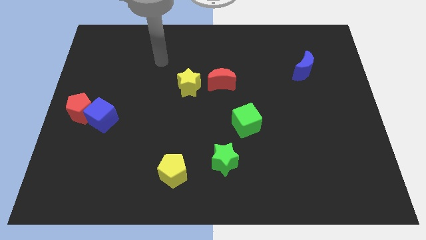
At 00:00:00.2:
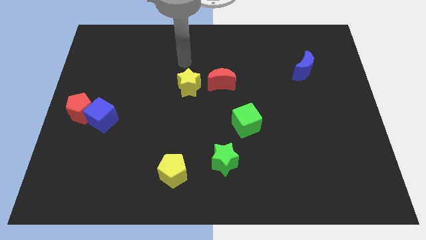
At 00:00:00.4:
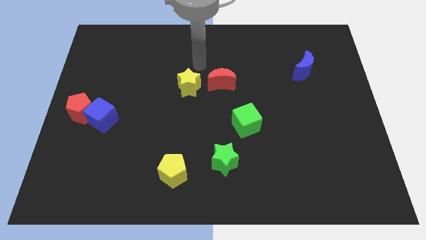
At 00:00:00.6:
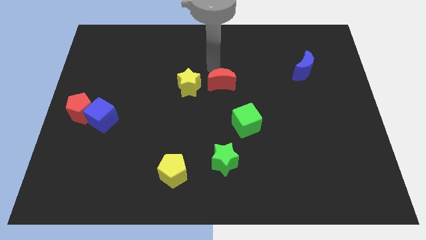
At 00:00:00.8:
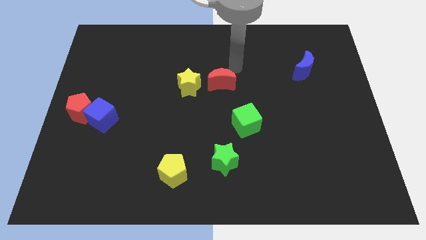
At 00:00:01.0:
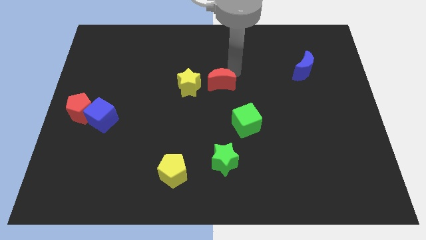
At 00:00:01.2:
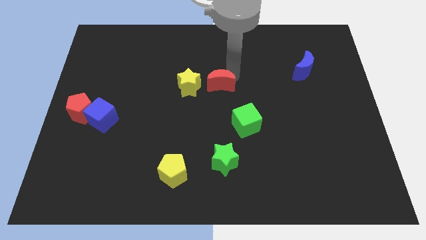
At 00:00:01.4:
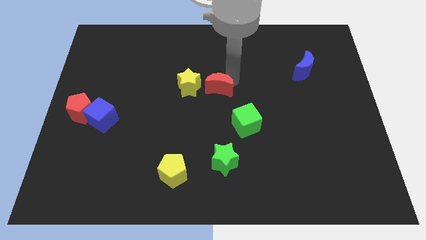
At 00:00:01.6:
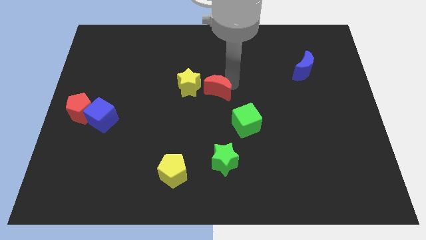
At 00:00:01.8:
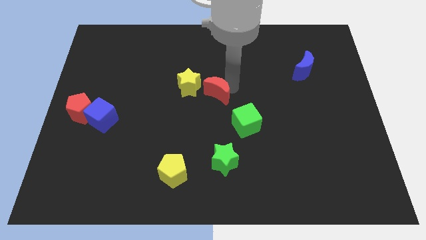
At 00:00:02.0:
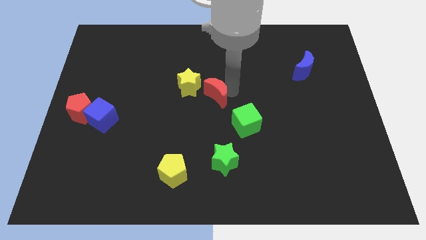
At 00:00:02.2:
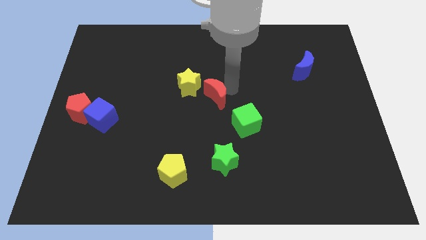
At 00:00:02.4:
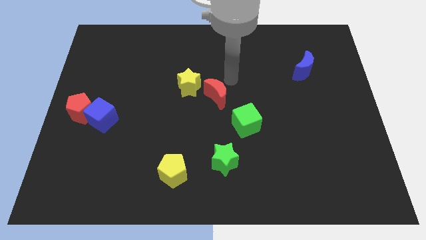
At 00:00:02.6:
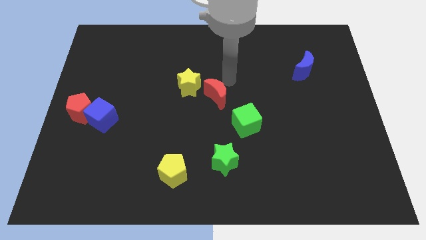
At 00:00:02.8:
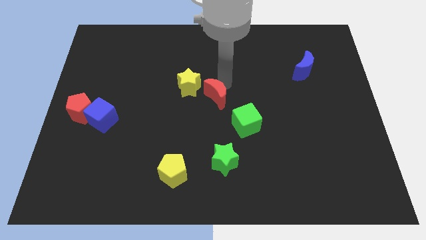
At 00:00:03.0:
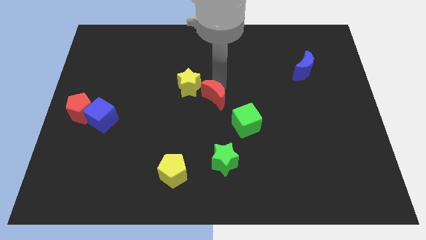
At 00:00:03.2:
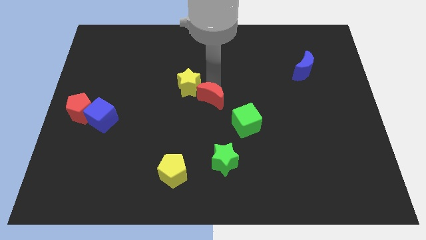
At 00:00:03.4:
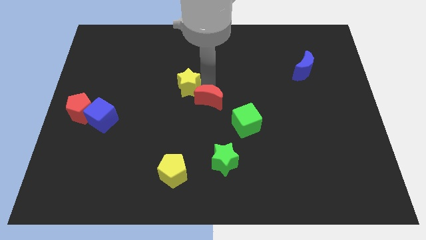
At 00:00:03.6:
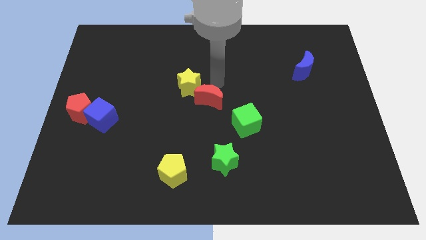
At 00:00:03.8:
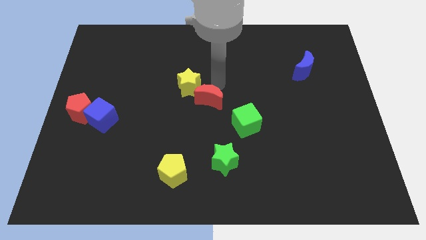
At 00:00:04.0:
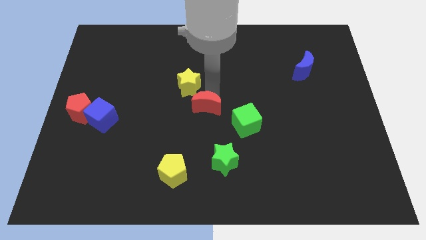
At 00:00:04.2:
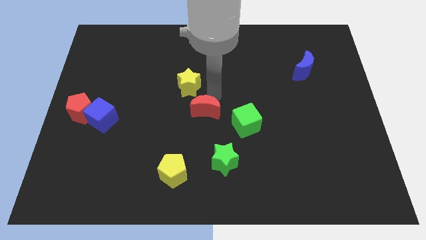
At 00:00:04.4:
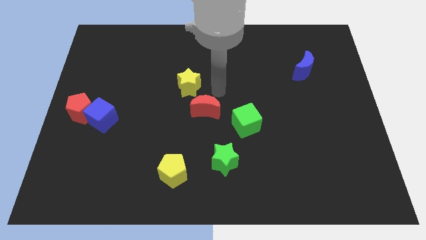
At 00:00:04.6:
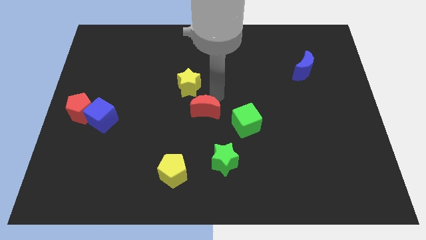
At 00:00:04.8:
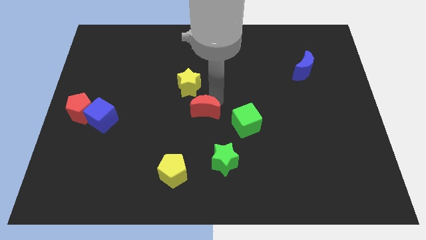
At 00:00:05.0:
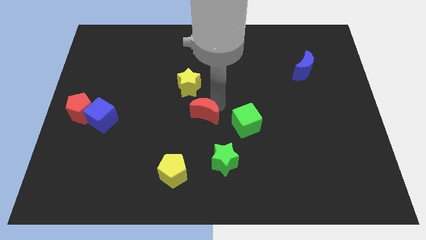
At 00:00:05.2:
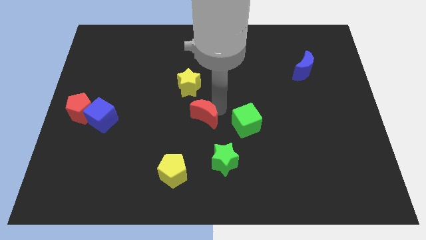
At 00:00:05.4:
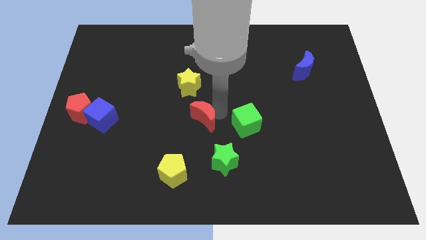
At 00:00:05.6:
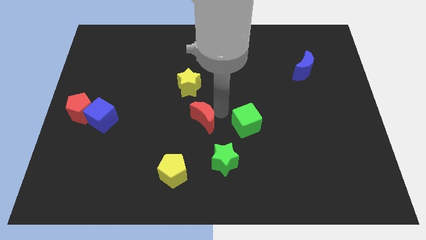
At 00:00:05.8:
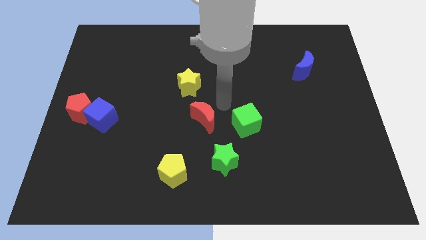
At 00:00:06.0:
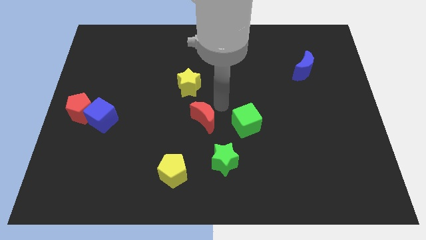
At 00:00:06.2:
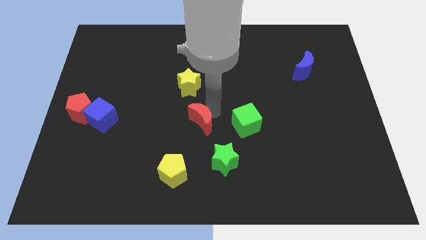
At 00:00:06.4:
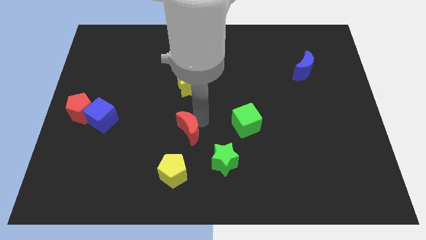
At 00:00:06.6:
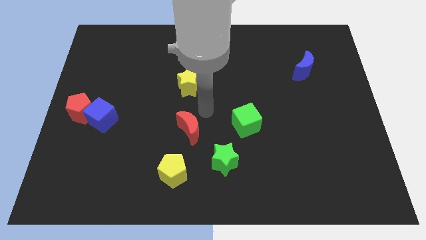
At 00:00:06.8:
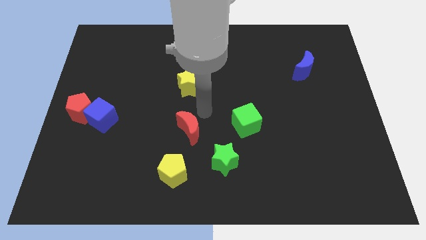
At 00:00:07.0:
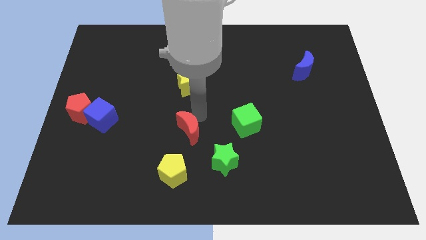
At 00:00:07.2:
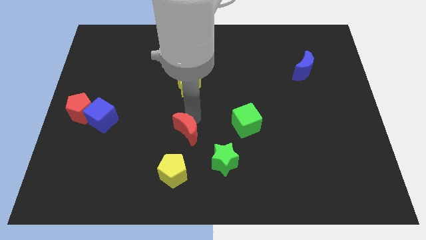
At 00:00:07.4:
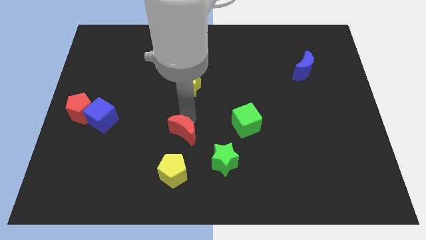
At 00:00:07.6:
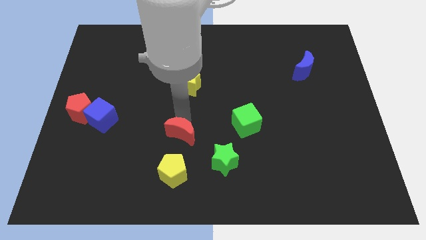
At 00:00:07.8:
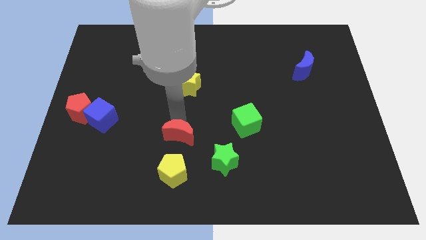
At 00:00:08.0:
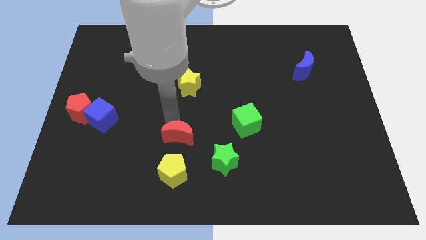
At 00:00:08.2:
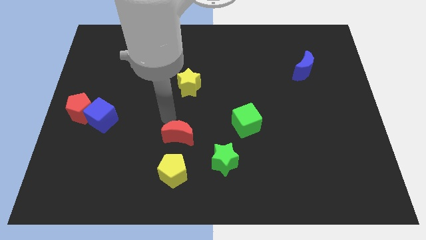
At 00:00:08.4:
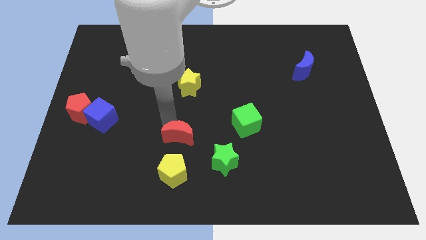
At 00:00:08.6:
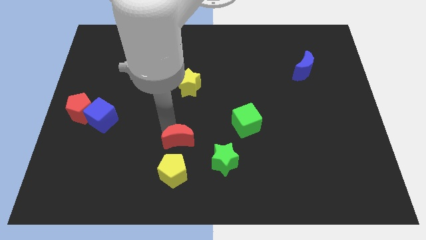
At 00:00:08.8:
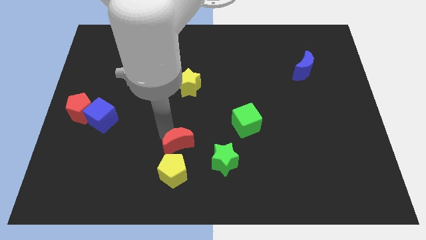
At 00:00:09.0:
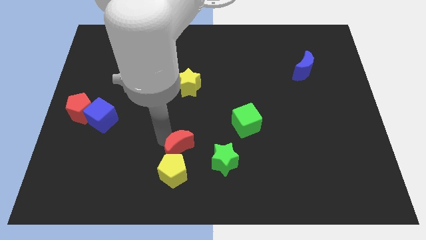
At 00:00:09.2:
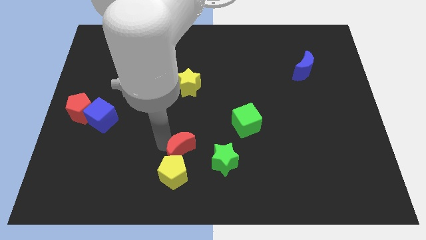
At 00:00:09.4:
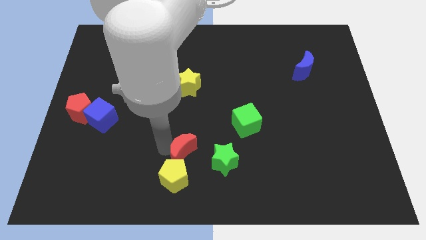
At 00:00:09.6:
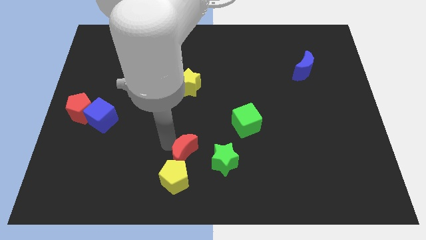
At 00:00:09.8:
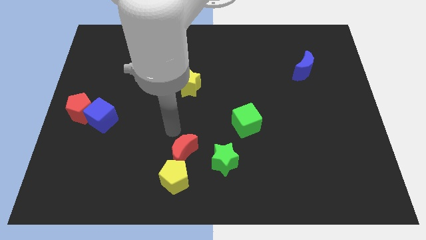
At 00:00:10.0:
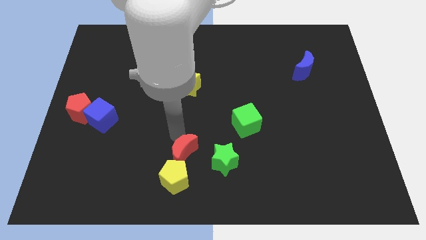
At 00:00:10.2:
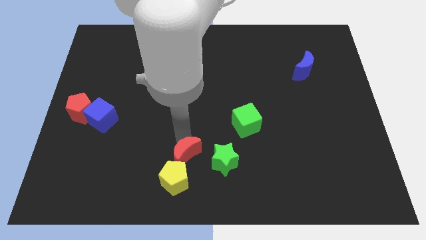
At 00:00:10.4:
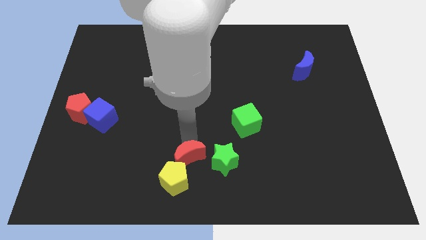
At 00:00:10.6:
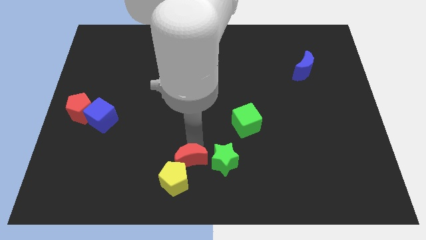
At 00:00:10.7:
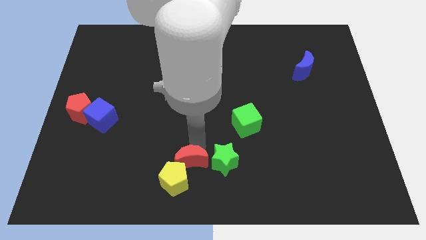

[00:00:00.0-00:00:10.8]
put the red moon to the bottom left of the green star

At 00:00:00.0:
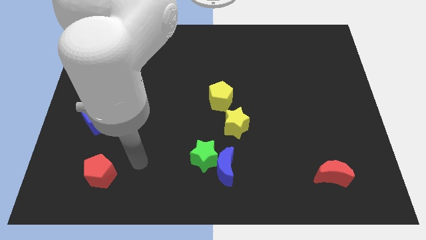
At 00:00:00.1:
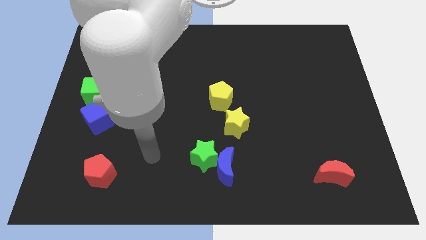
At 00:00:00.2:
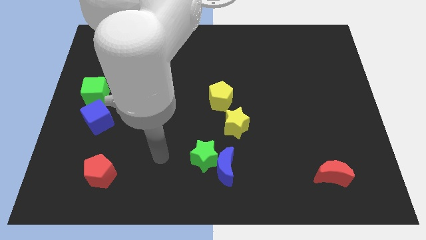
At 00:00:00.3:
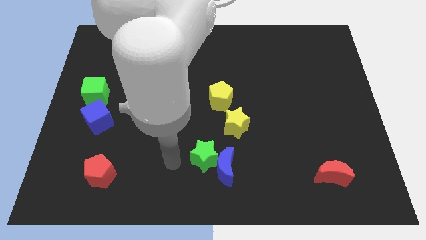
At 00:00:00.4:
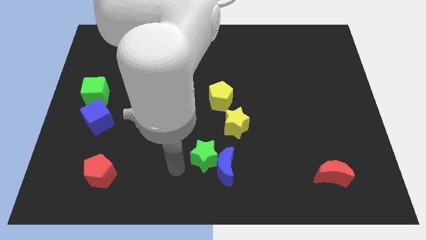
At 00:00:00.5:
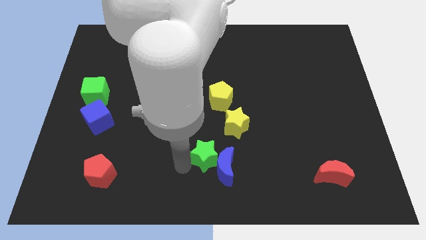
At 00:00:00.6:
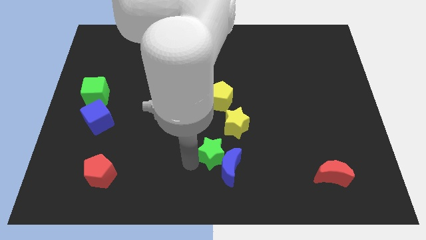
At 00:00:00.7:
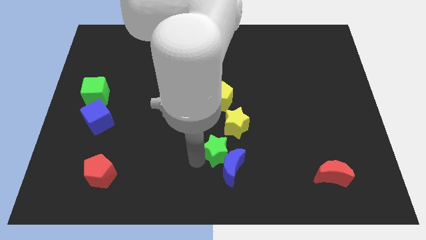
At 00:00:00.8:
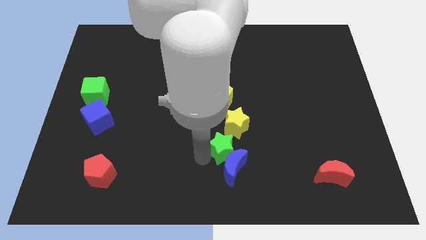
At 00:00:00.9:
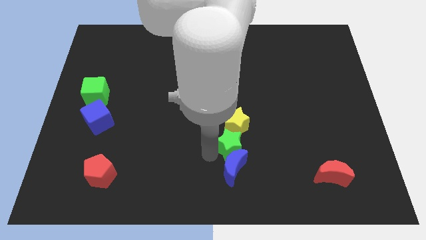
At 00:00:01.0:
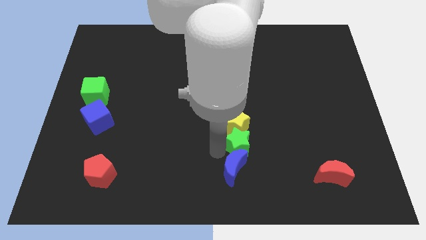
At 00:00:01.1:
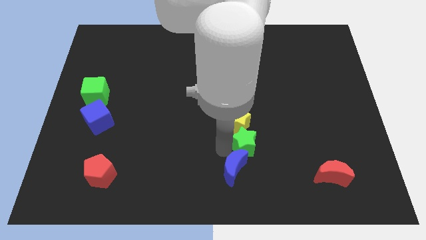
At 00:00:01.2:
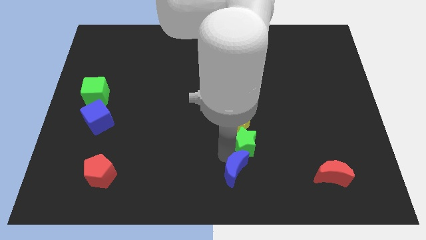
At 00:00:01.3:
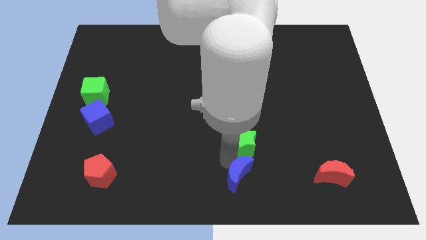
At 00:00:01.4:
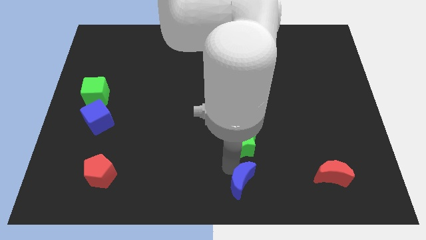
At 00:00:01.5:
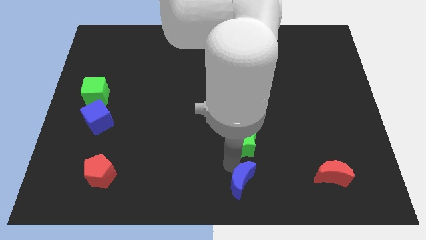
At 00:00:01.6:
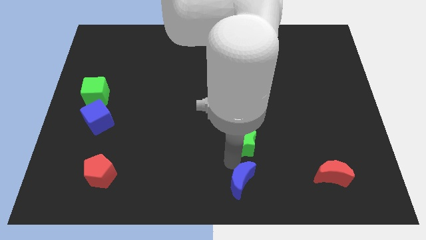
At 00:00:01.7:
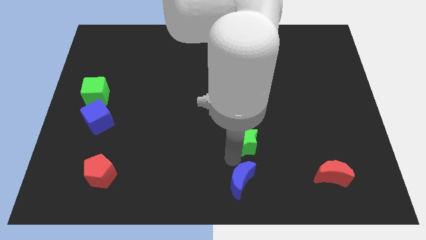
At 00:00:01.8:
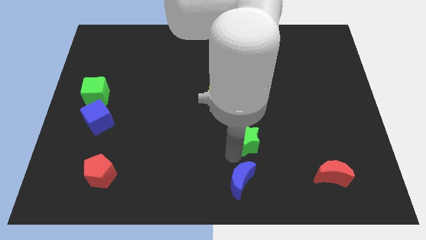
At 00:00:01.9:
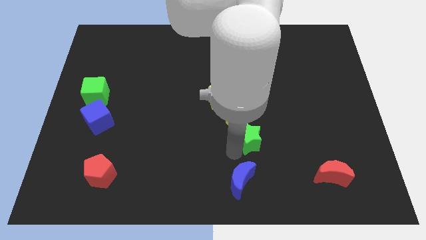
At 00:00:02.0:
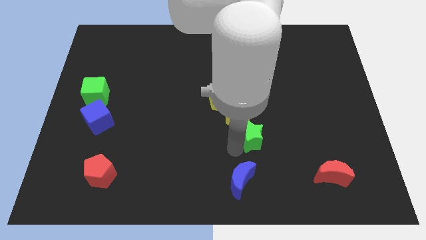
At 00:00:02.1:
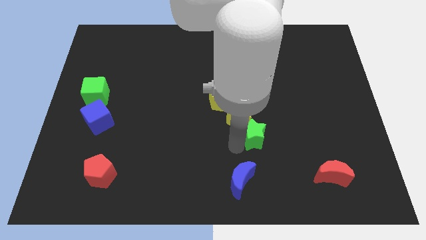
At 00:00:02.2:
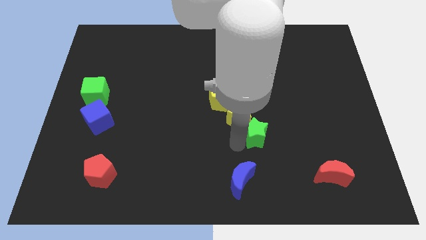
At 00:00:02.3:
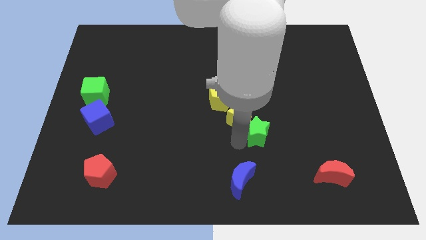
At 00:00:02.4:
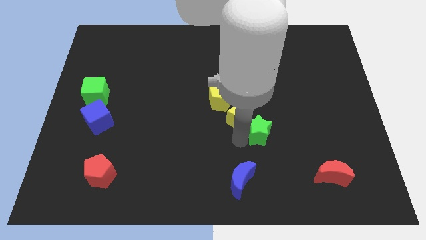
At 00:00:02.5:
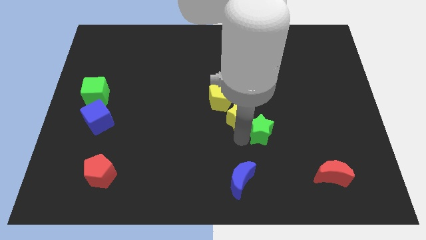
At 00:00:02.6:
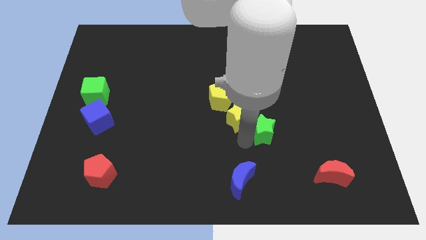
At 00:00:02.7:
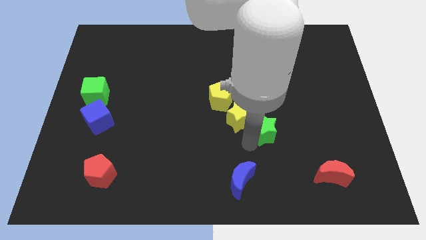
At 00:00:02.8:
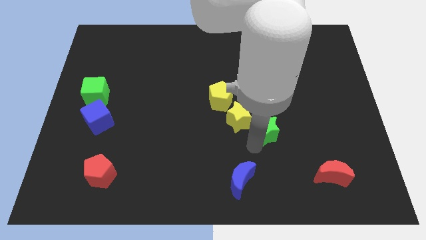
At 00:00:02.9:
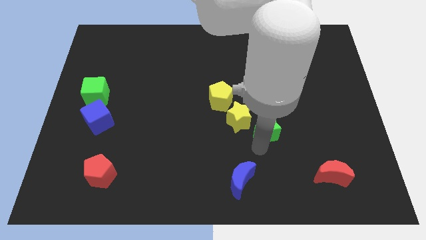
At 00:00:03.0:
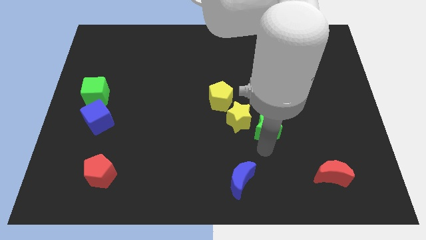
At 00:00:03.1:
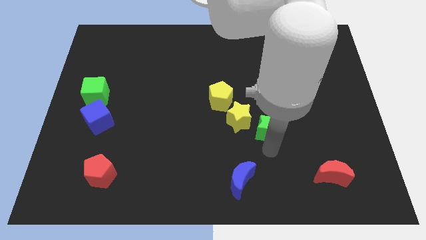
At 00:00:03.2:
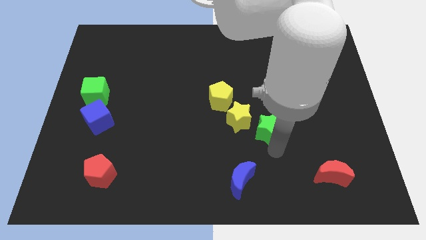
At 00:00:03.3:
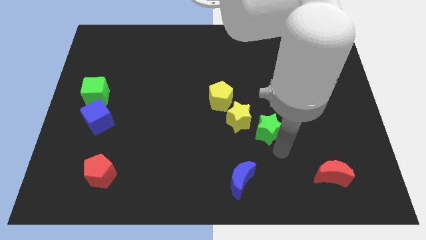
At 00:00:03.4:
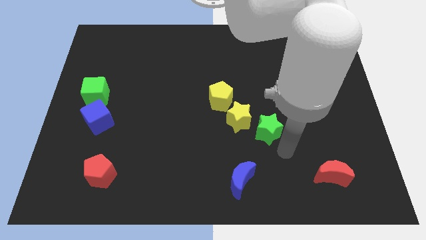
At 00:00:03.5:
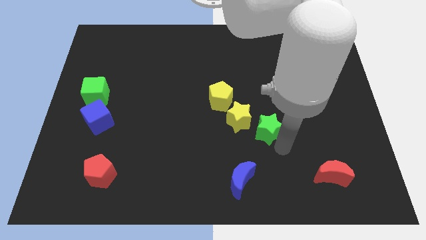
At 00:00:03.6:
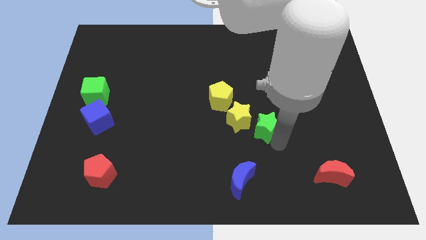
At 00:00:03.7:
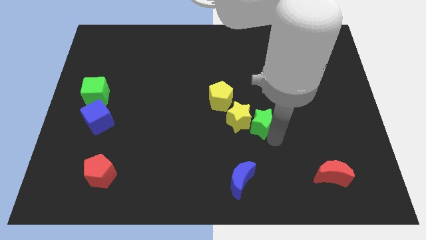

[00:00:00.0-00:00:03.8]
put the green star to the top right side of the yellow star
